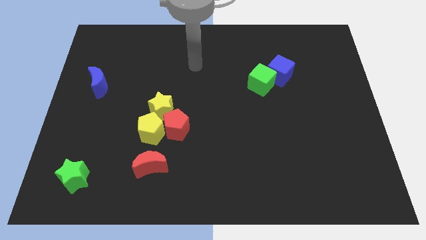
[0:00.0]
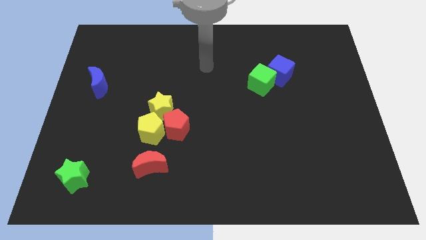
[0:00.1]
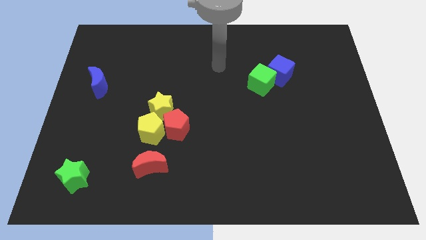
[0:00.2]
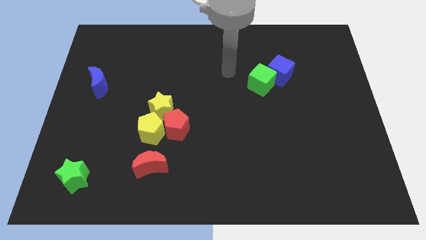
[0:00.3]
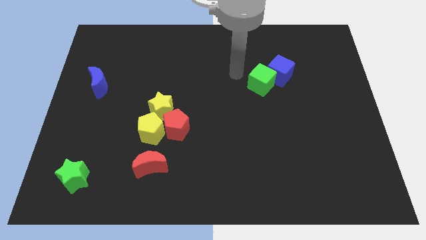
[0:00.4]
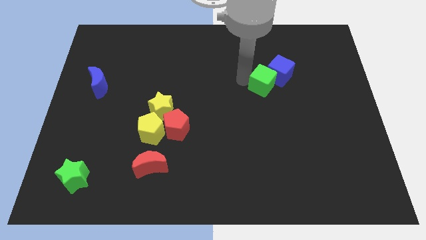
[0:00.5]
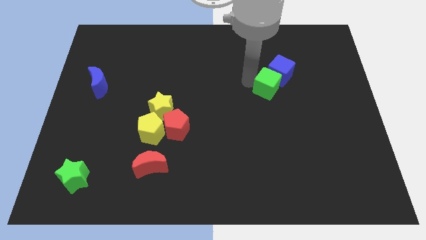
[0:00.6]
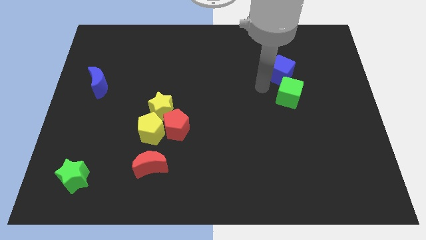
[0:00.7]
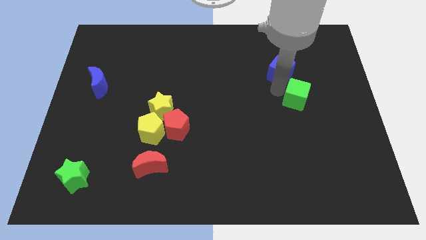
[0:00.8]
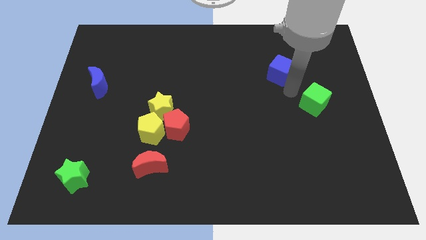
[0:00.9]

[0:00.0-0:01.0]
separate the blue cube from the green cube

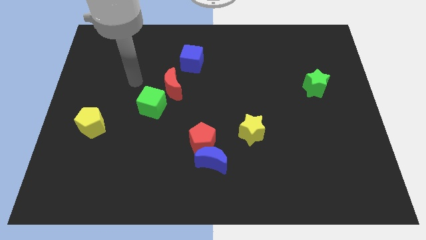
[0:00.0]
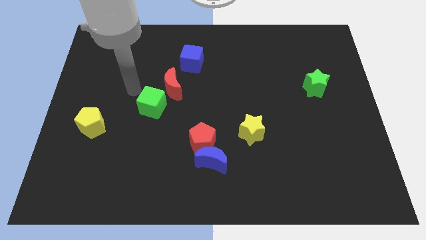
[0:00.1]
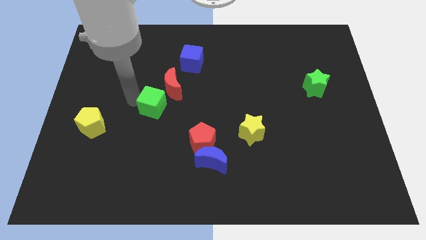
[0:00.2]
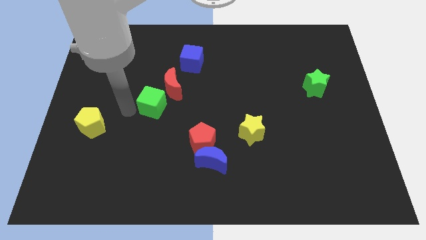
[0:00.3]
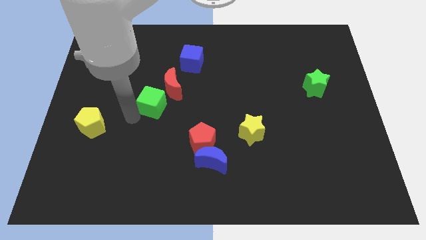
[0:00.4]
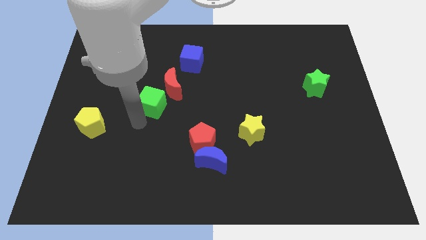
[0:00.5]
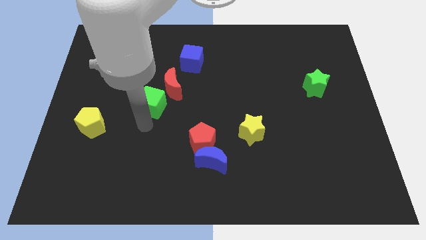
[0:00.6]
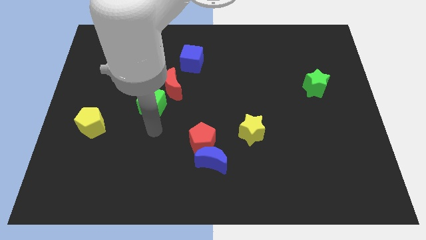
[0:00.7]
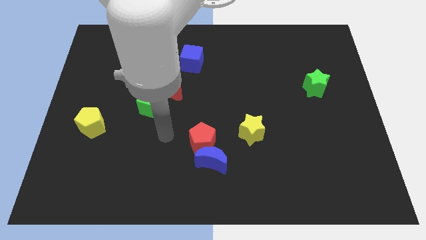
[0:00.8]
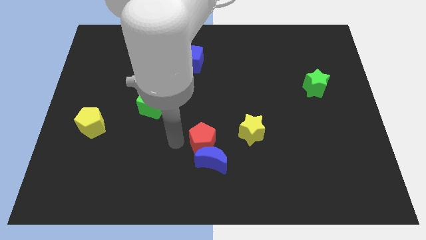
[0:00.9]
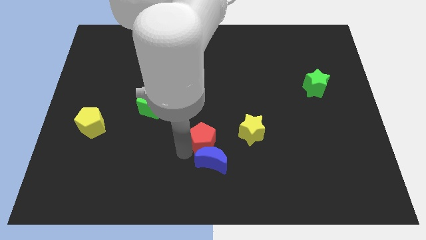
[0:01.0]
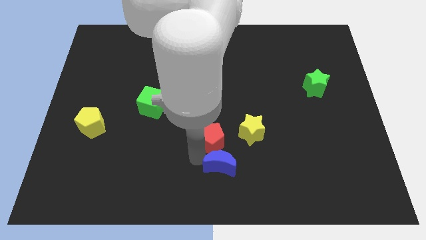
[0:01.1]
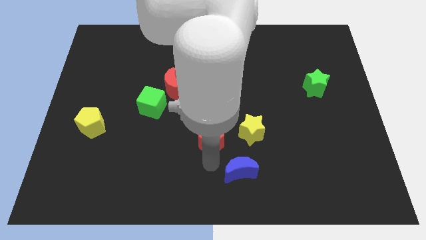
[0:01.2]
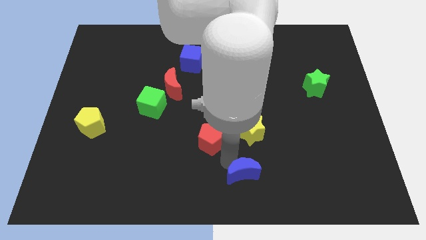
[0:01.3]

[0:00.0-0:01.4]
separate the red pentagon from the blue moon

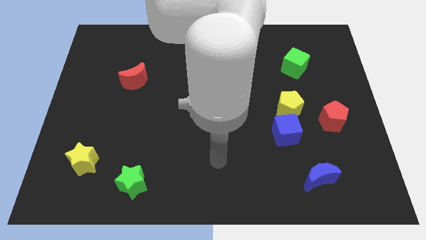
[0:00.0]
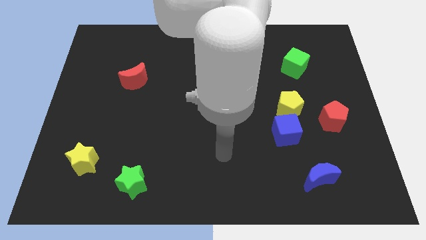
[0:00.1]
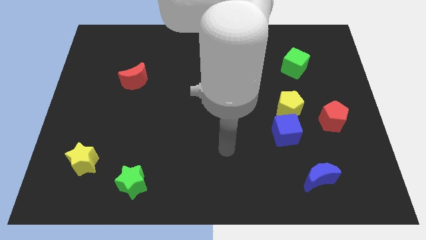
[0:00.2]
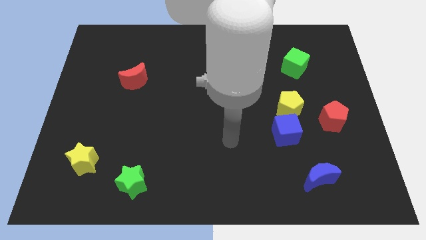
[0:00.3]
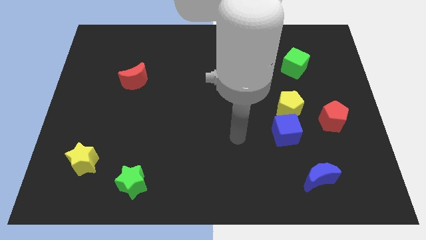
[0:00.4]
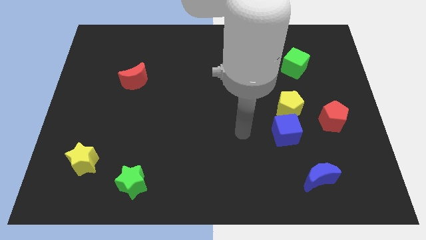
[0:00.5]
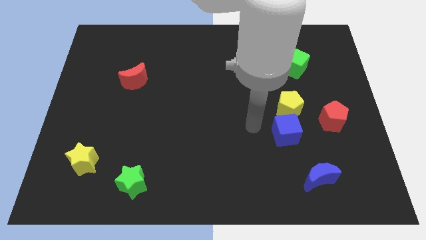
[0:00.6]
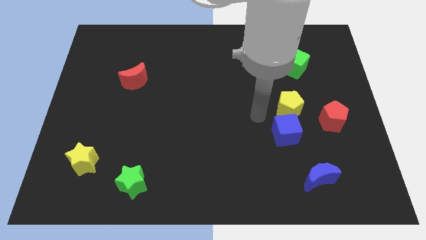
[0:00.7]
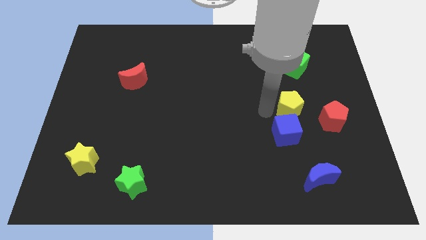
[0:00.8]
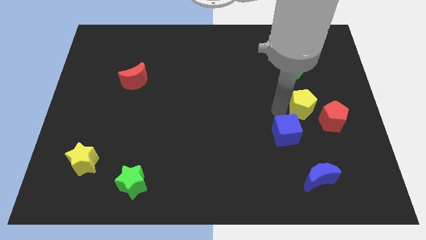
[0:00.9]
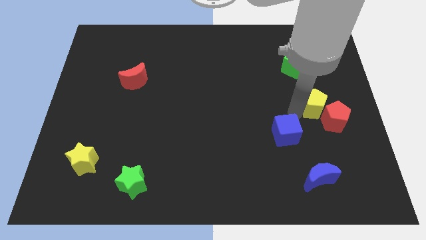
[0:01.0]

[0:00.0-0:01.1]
separate the blue cube from the yellow pentagon

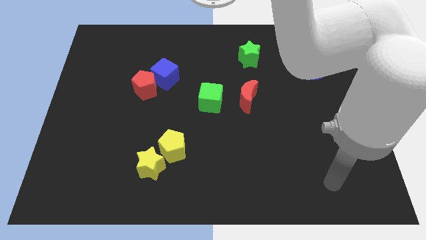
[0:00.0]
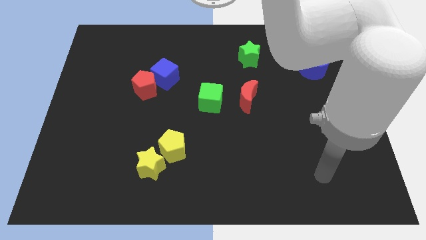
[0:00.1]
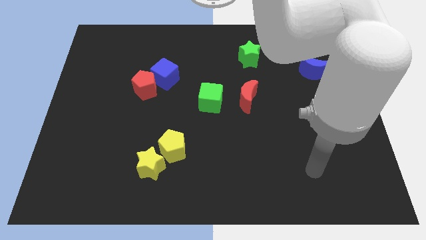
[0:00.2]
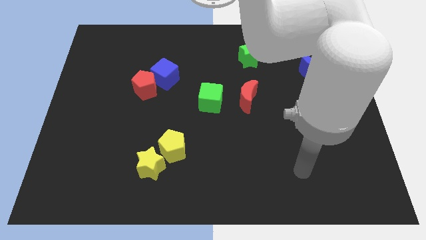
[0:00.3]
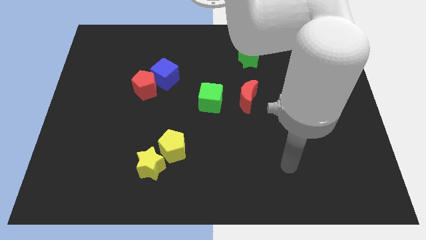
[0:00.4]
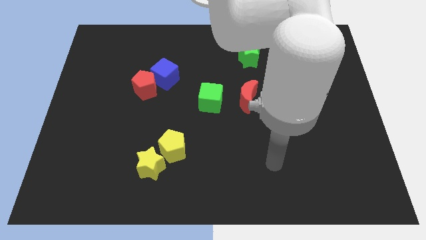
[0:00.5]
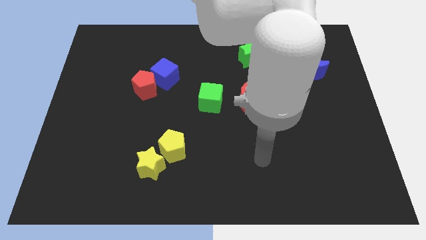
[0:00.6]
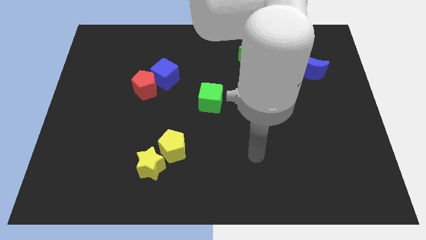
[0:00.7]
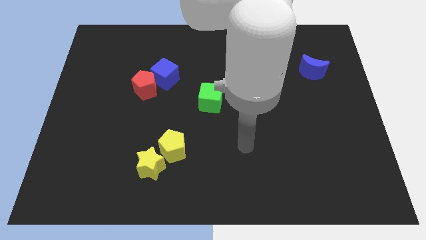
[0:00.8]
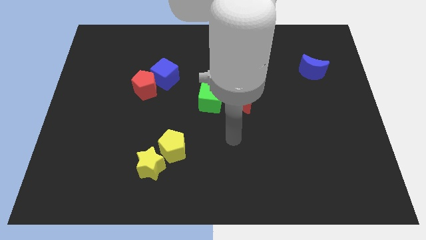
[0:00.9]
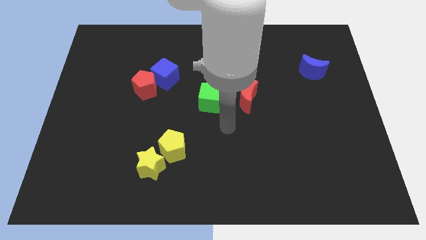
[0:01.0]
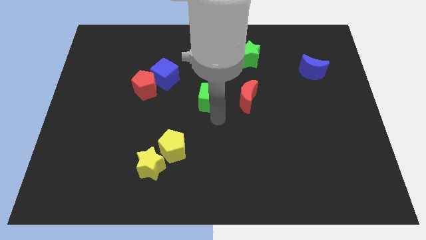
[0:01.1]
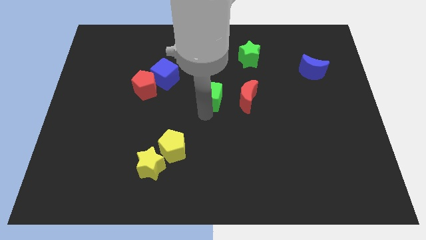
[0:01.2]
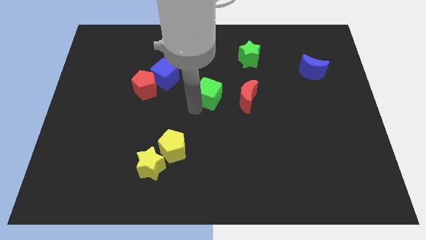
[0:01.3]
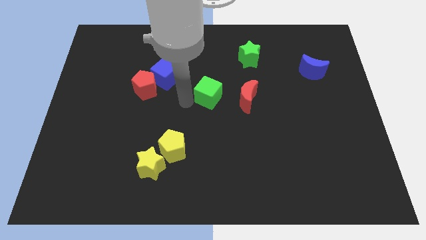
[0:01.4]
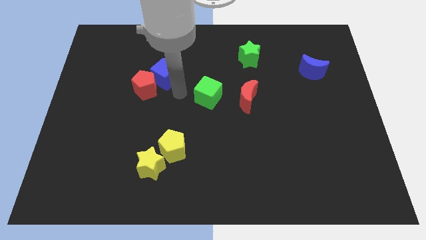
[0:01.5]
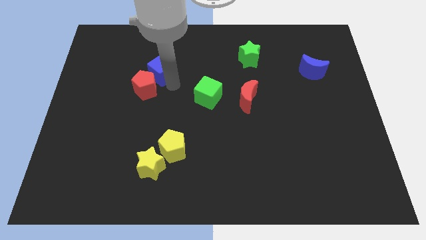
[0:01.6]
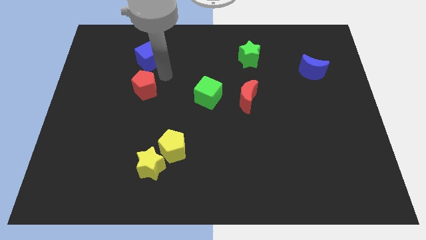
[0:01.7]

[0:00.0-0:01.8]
separate the red pentagon from the blue cube

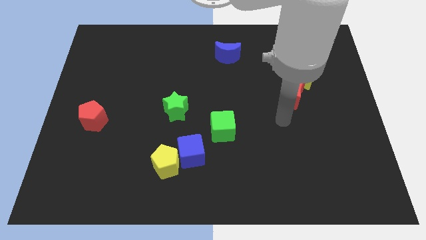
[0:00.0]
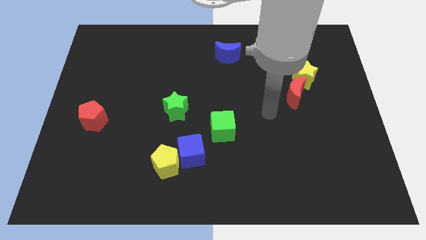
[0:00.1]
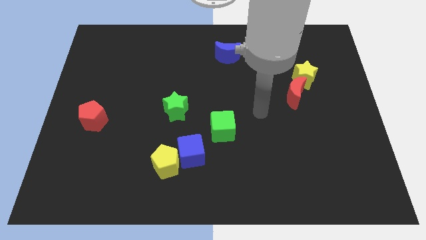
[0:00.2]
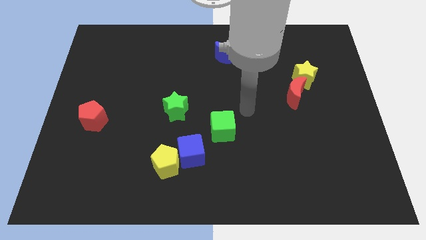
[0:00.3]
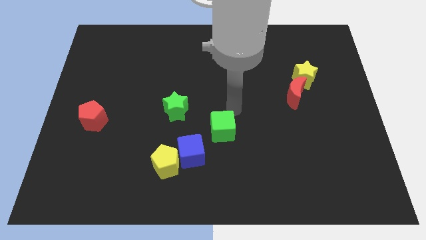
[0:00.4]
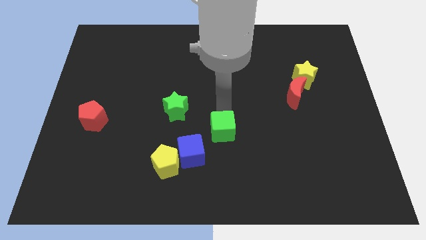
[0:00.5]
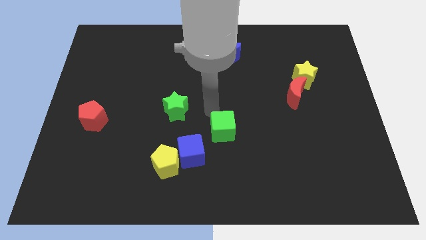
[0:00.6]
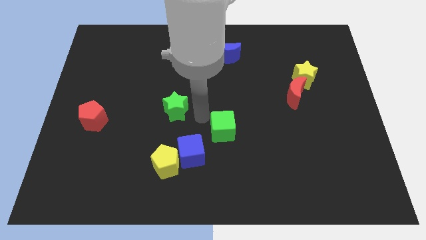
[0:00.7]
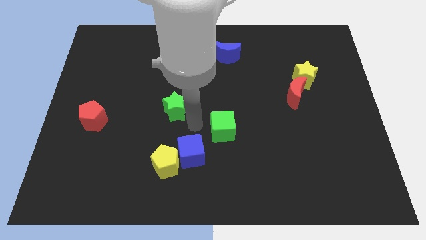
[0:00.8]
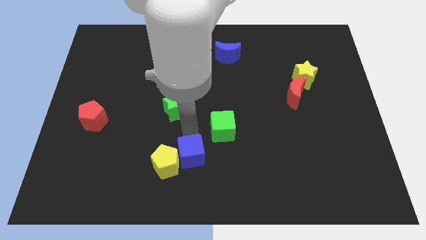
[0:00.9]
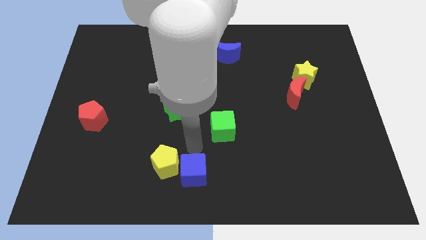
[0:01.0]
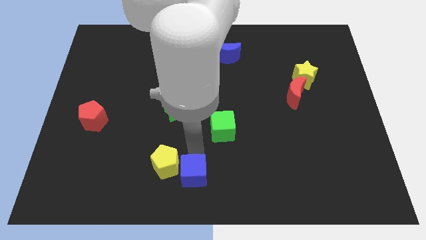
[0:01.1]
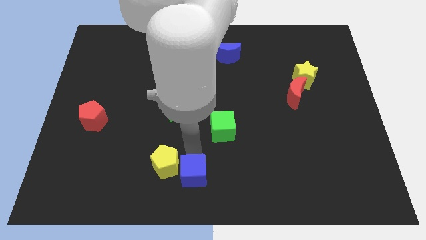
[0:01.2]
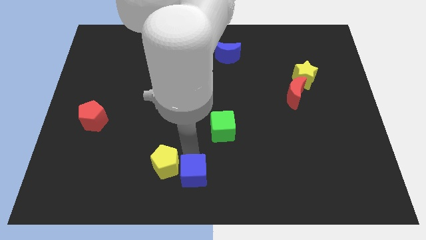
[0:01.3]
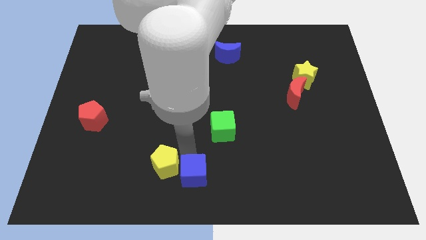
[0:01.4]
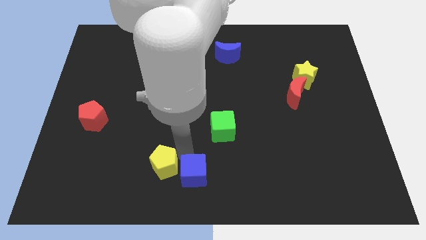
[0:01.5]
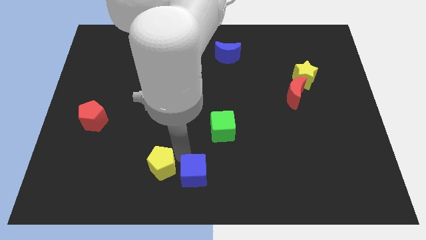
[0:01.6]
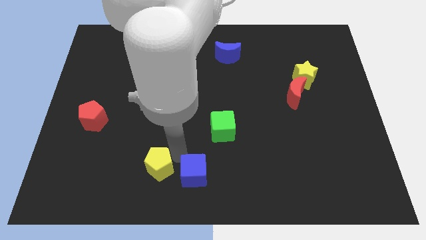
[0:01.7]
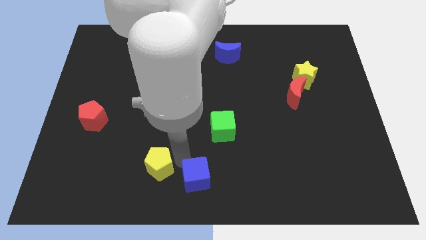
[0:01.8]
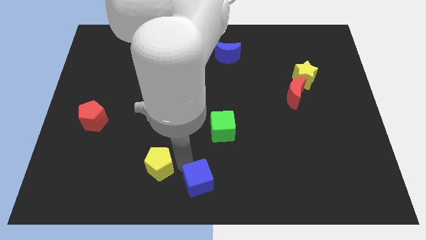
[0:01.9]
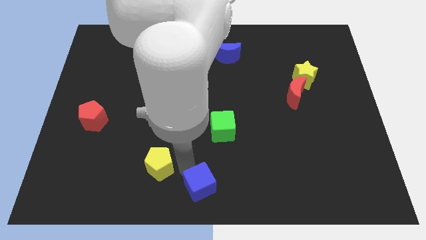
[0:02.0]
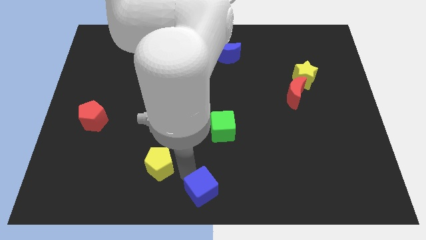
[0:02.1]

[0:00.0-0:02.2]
move the yellow pentagon away from the blue cube

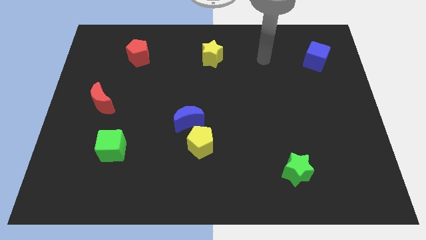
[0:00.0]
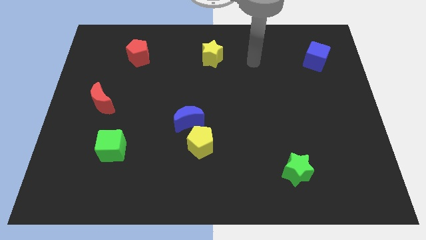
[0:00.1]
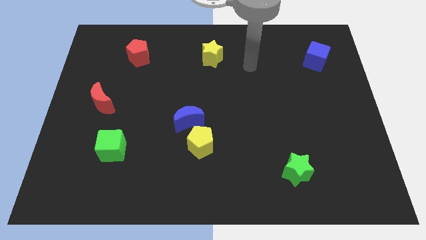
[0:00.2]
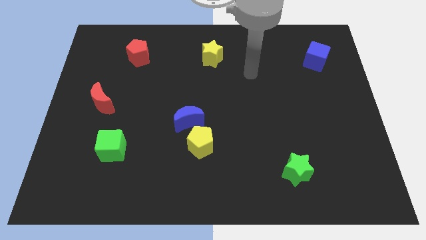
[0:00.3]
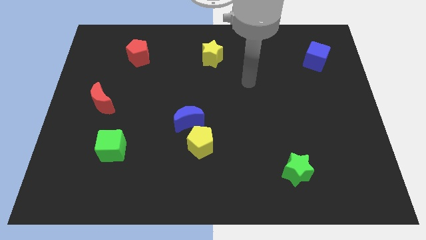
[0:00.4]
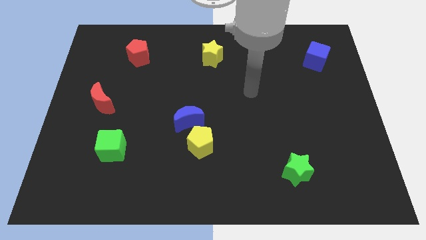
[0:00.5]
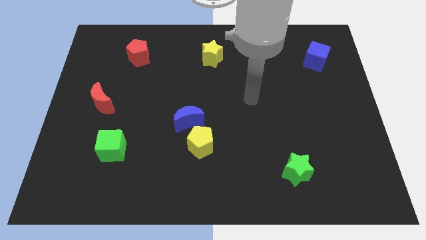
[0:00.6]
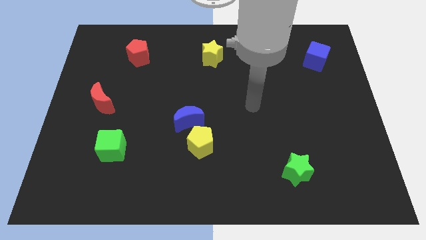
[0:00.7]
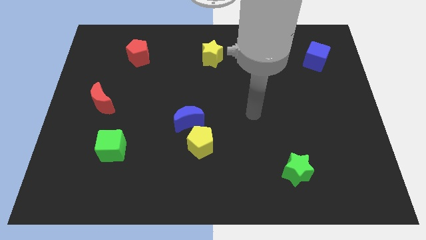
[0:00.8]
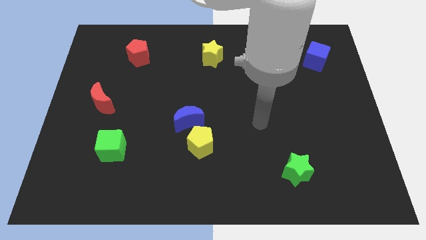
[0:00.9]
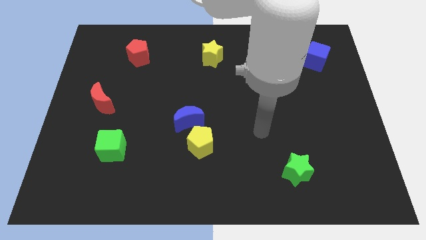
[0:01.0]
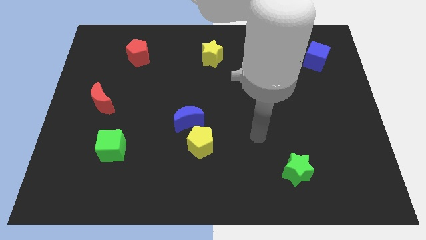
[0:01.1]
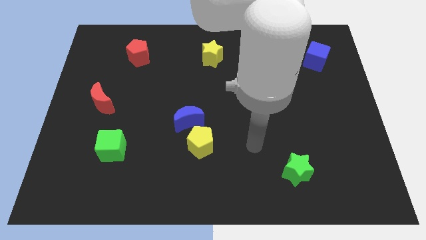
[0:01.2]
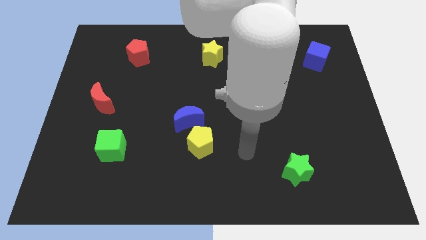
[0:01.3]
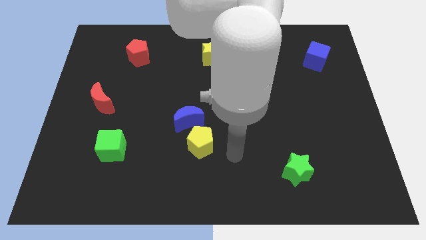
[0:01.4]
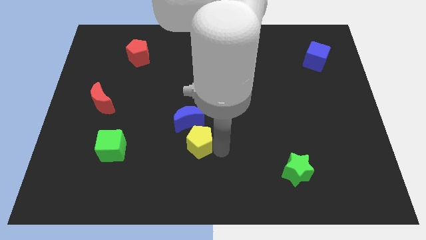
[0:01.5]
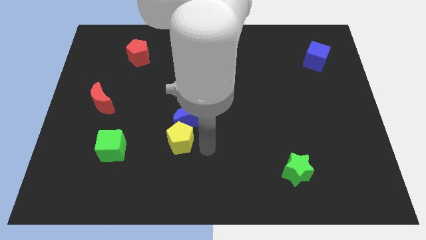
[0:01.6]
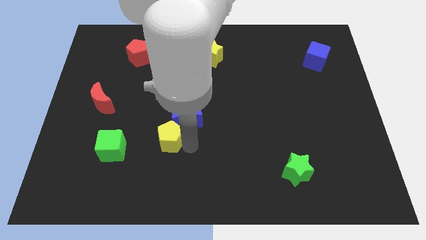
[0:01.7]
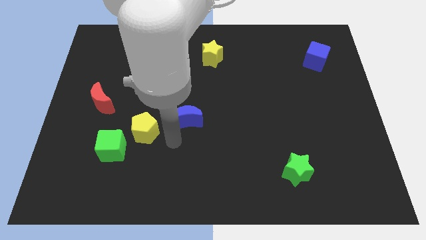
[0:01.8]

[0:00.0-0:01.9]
pull the blue moon apart from the yellow pentagon
